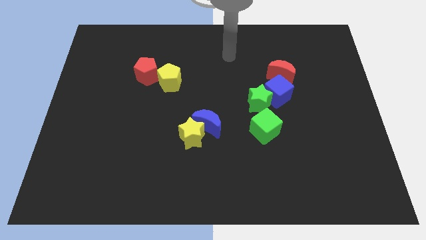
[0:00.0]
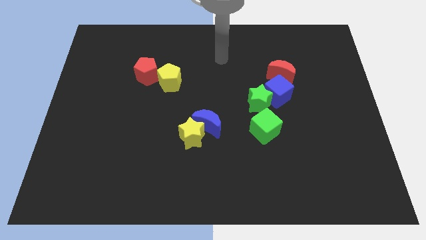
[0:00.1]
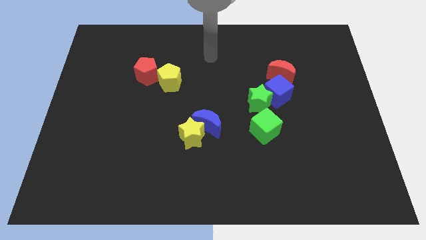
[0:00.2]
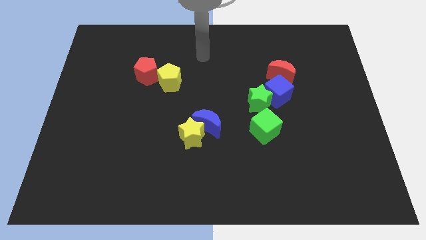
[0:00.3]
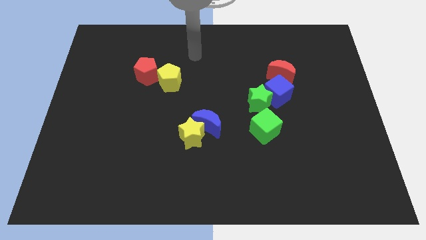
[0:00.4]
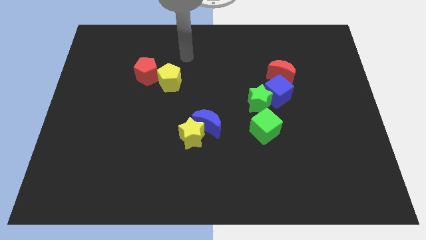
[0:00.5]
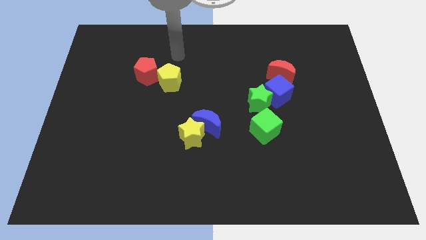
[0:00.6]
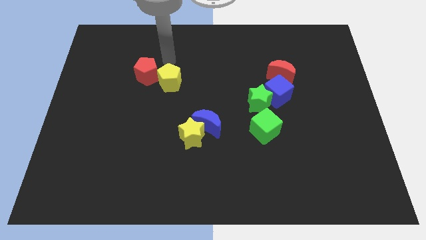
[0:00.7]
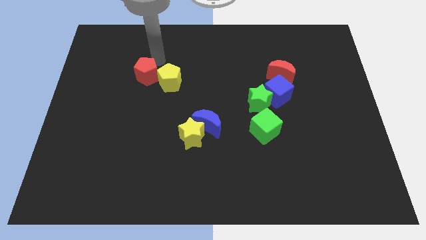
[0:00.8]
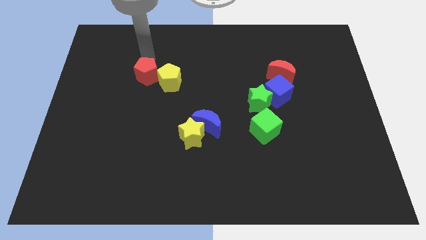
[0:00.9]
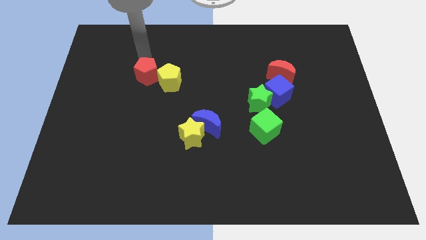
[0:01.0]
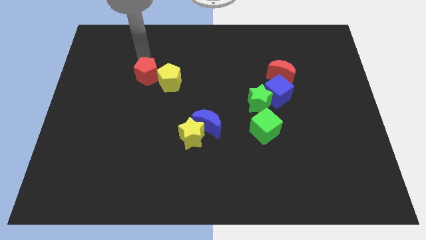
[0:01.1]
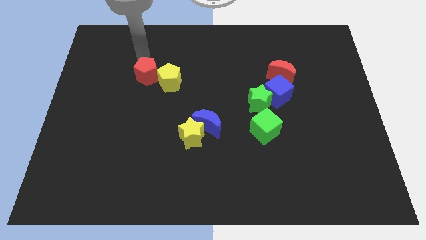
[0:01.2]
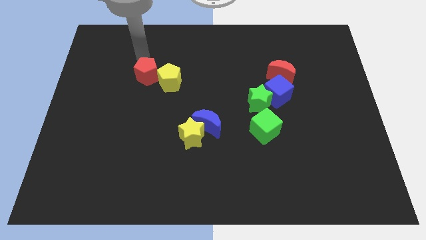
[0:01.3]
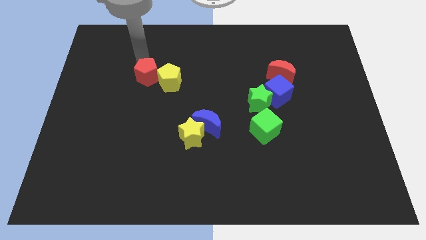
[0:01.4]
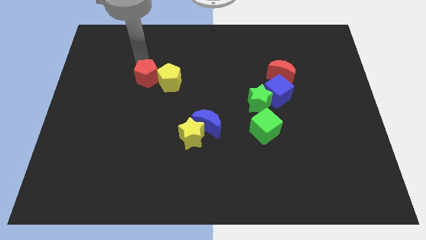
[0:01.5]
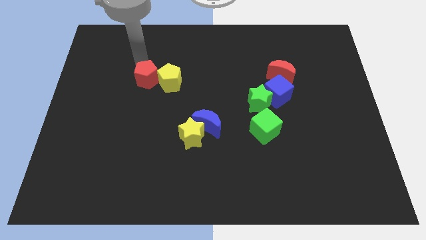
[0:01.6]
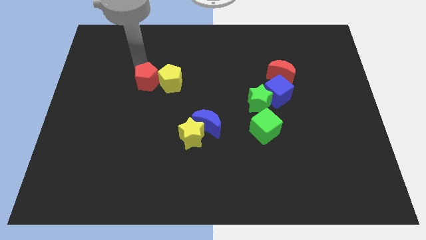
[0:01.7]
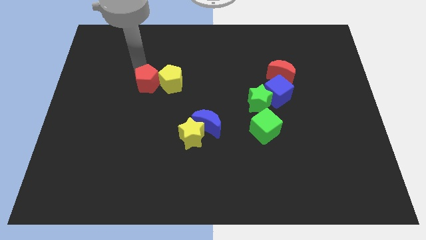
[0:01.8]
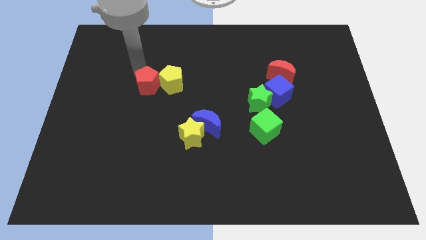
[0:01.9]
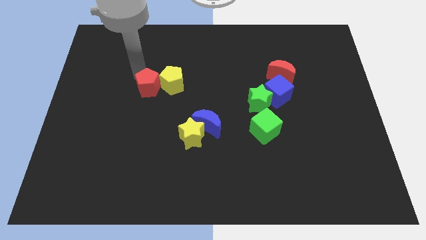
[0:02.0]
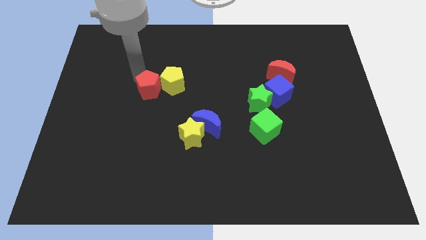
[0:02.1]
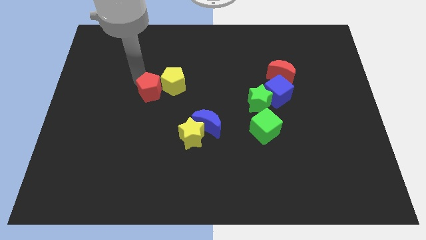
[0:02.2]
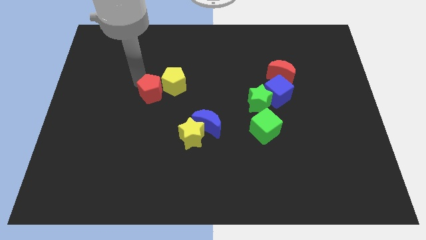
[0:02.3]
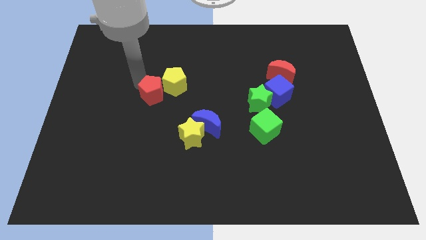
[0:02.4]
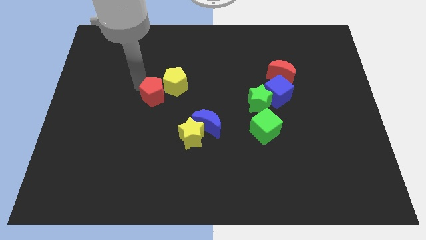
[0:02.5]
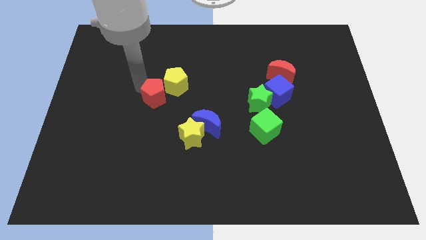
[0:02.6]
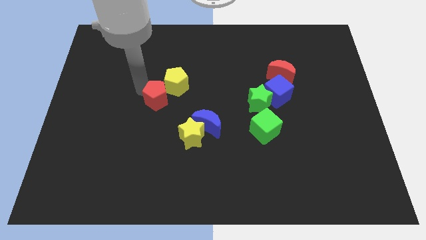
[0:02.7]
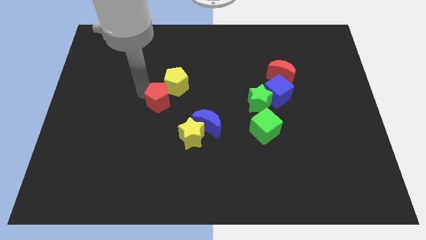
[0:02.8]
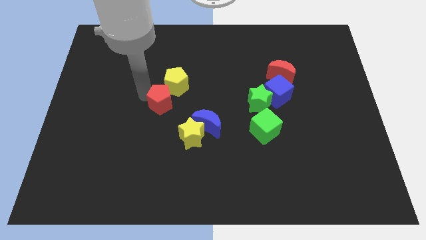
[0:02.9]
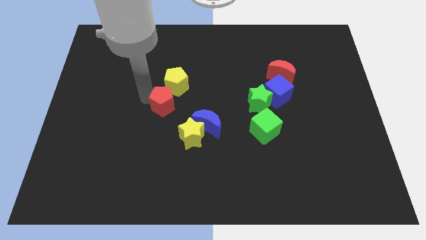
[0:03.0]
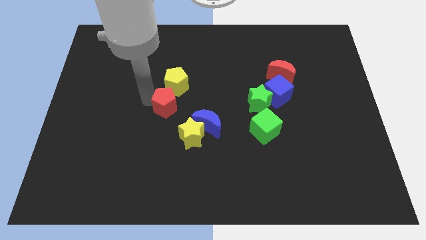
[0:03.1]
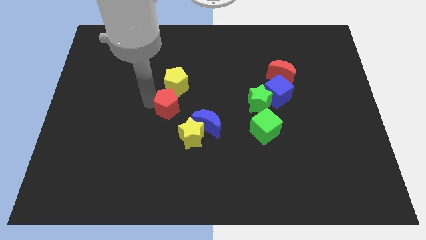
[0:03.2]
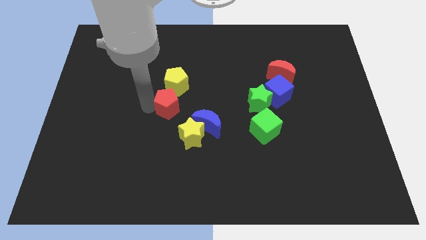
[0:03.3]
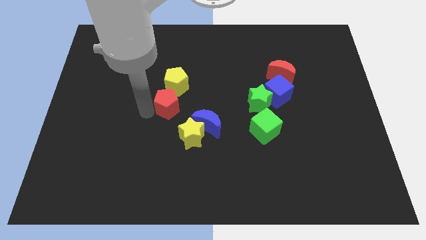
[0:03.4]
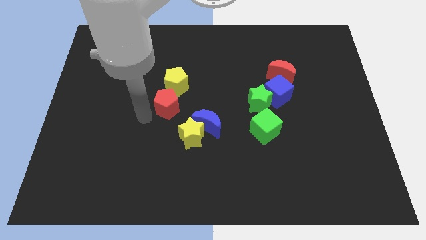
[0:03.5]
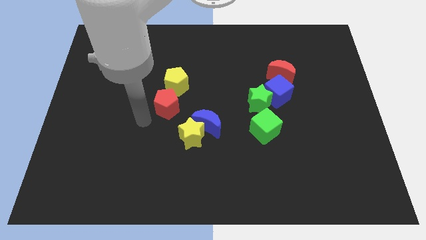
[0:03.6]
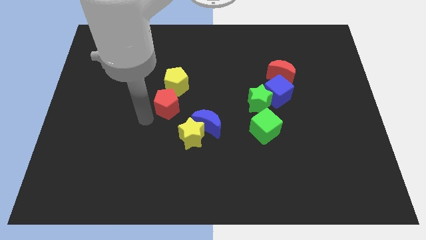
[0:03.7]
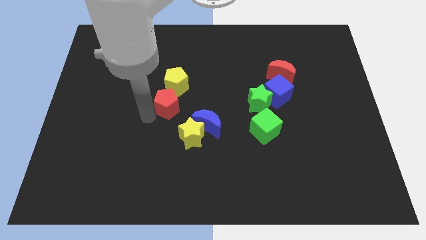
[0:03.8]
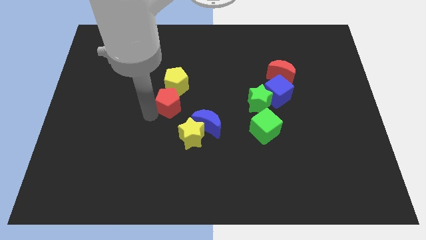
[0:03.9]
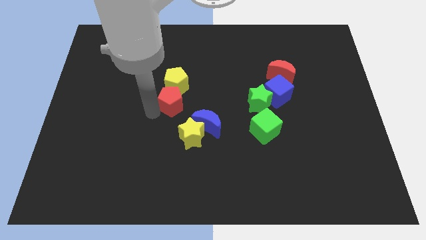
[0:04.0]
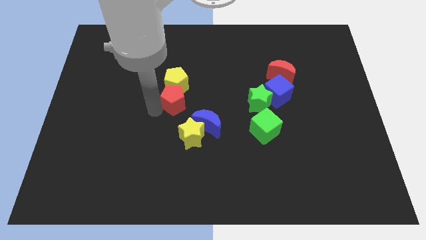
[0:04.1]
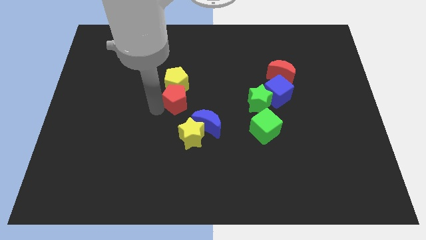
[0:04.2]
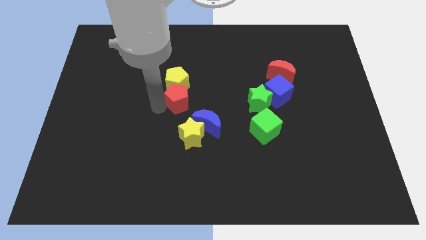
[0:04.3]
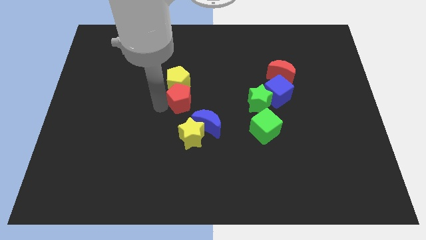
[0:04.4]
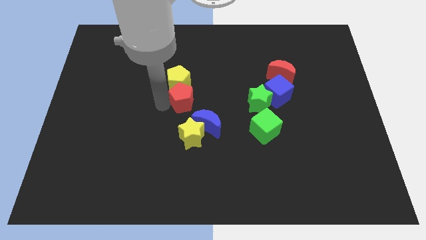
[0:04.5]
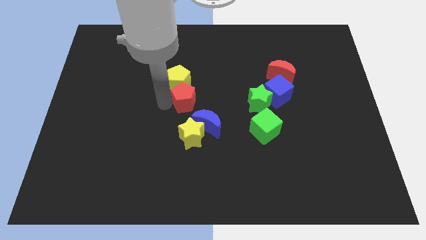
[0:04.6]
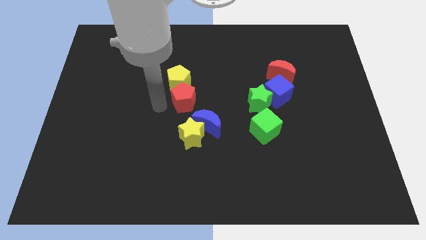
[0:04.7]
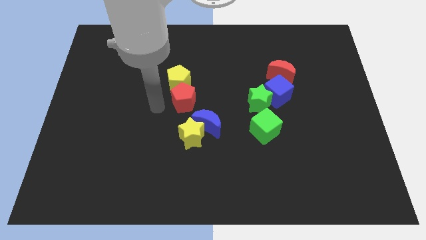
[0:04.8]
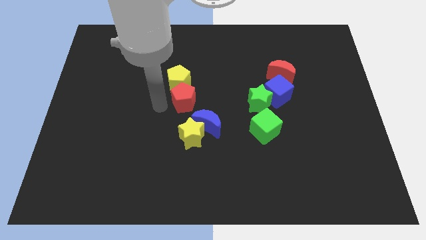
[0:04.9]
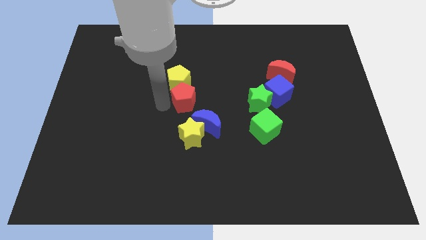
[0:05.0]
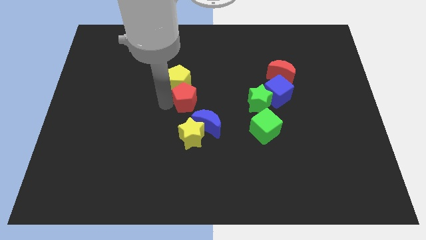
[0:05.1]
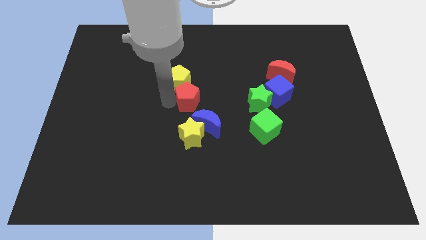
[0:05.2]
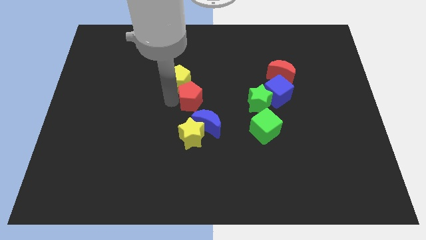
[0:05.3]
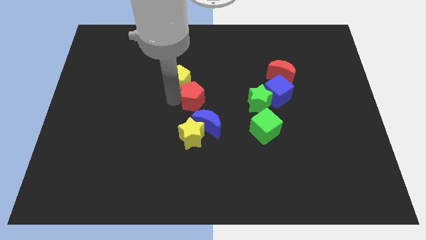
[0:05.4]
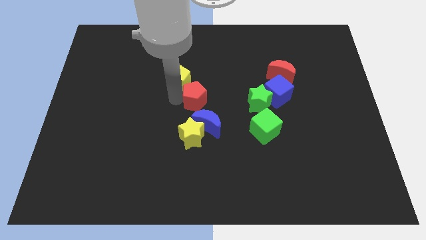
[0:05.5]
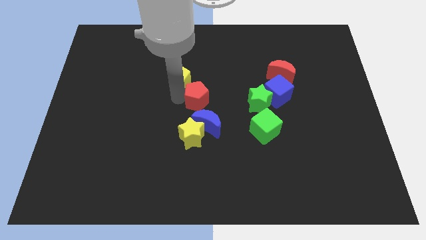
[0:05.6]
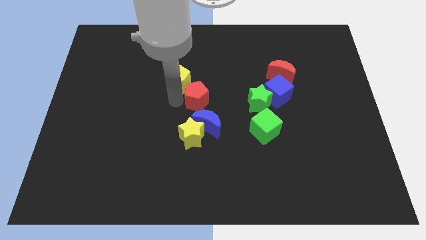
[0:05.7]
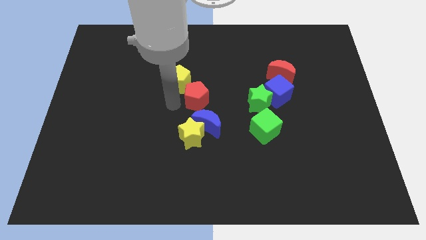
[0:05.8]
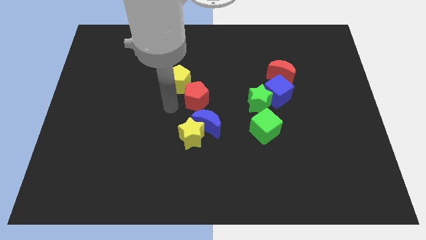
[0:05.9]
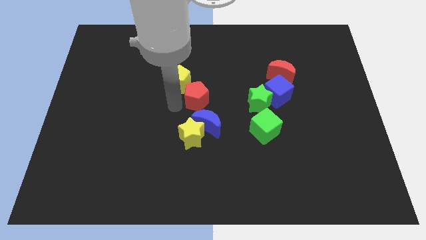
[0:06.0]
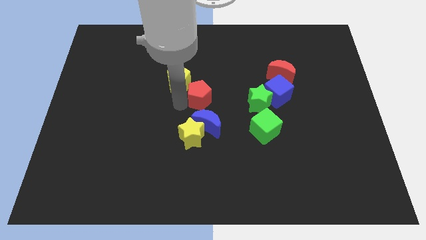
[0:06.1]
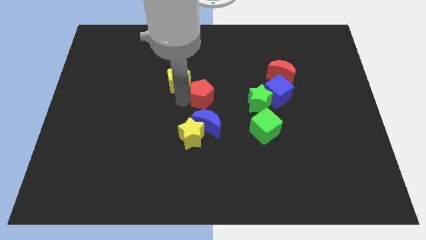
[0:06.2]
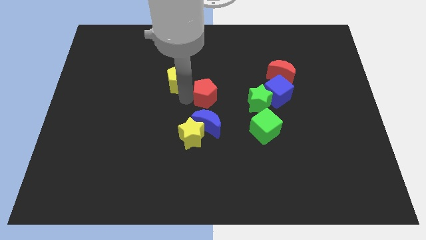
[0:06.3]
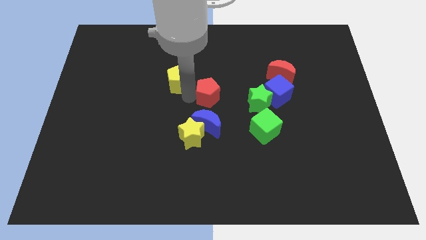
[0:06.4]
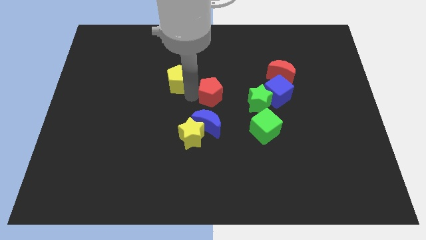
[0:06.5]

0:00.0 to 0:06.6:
slide the red pentagon left of the blue cube
